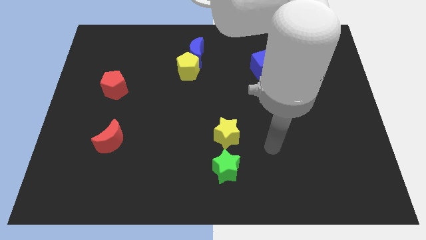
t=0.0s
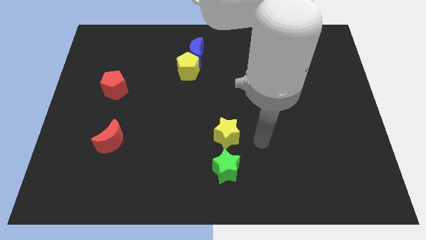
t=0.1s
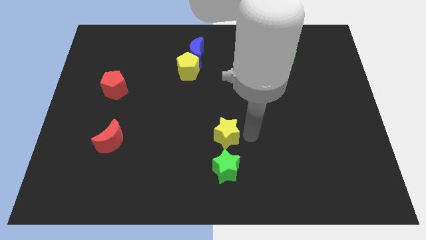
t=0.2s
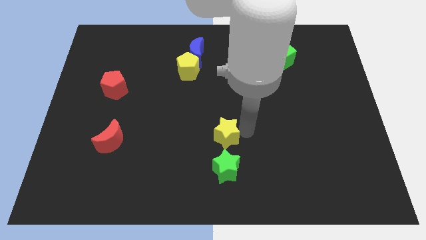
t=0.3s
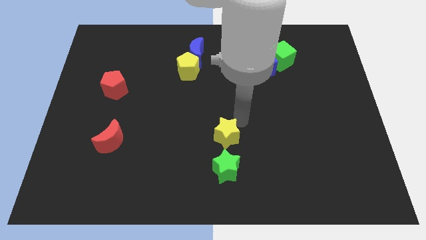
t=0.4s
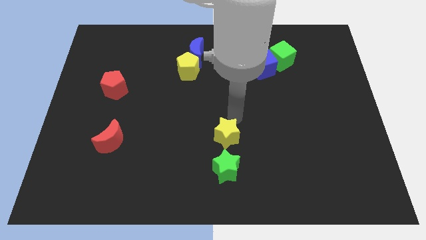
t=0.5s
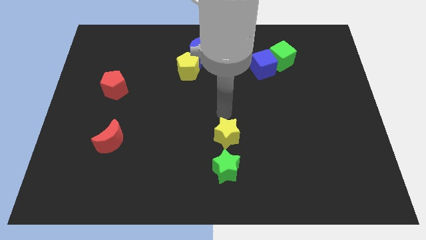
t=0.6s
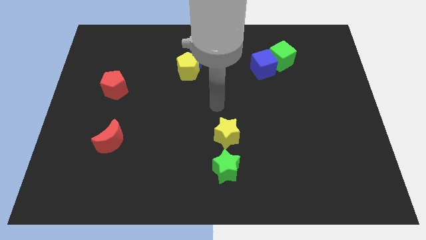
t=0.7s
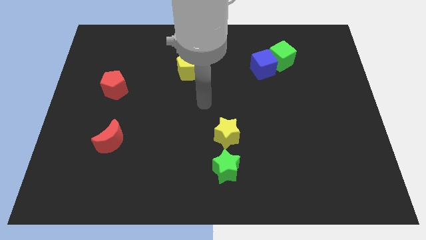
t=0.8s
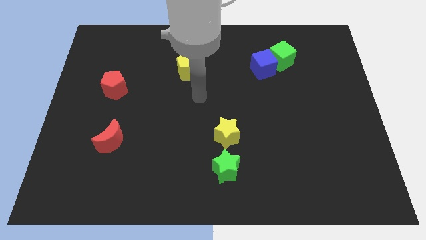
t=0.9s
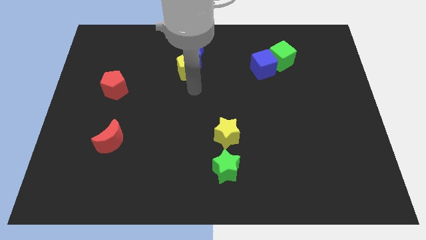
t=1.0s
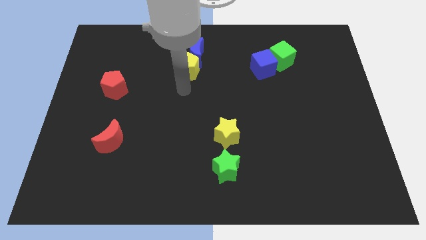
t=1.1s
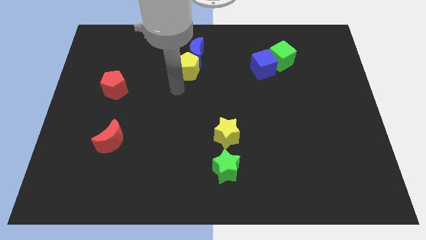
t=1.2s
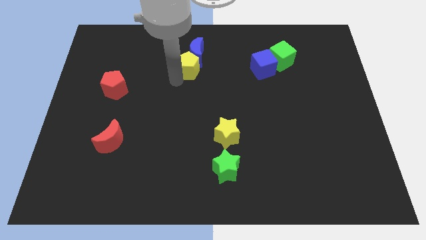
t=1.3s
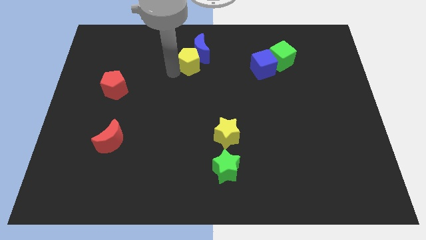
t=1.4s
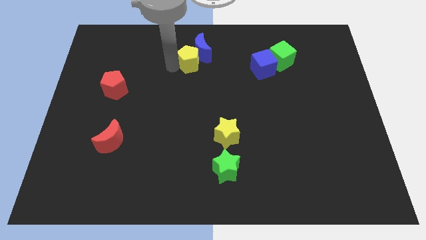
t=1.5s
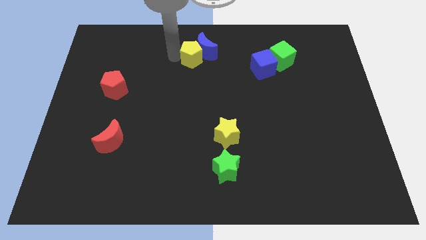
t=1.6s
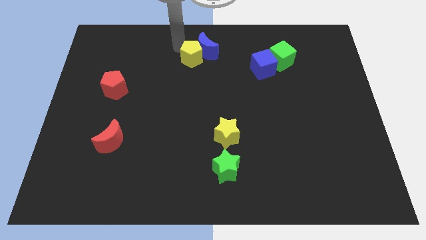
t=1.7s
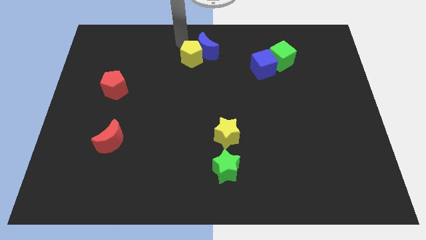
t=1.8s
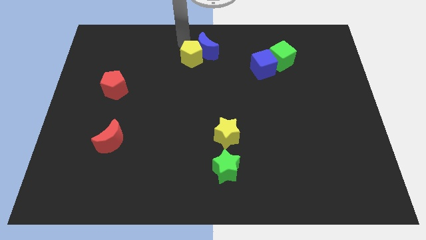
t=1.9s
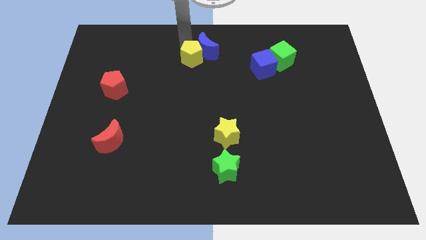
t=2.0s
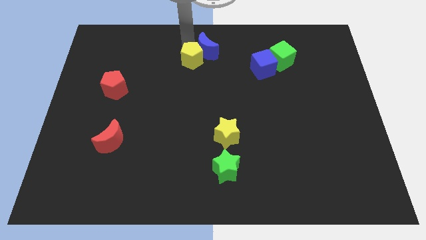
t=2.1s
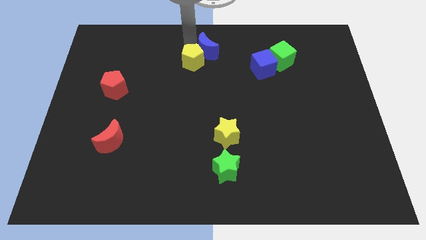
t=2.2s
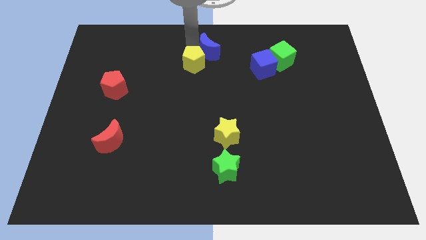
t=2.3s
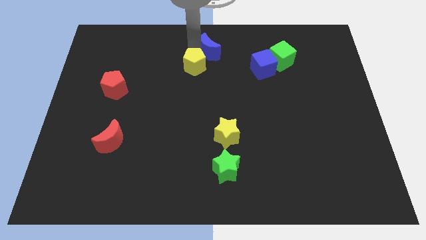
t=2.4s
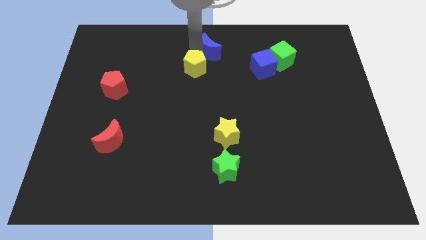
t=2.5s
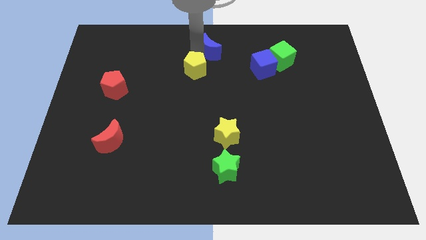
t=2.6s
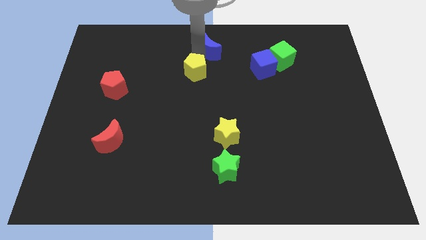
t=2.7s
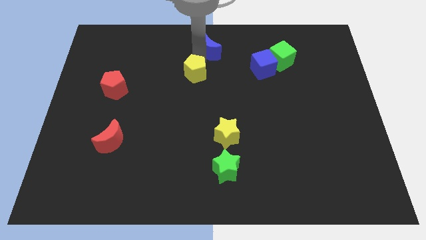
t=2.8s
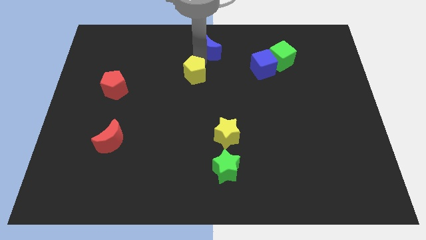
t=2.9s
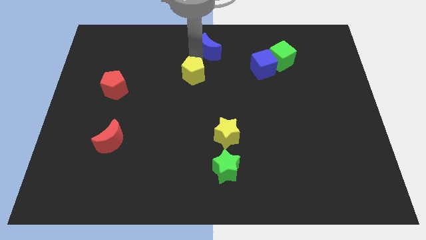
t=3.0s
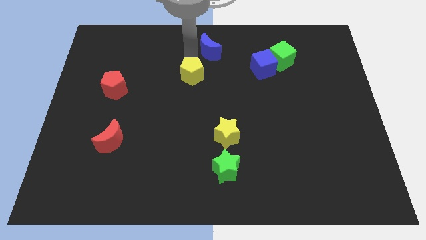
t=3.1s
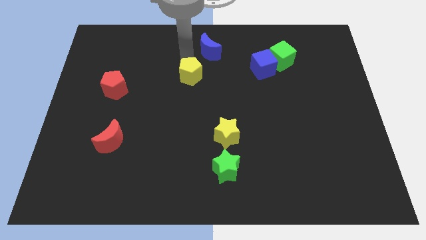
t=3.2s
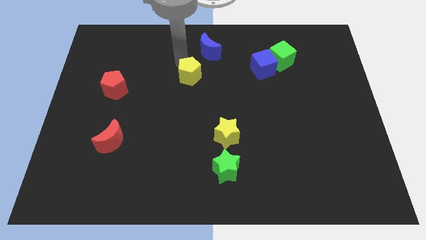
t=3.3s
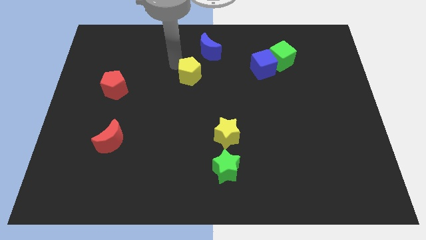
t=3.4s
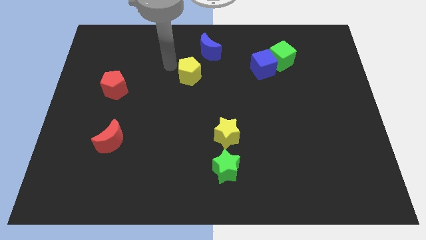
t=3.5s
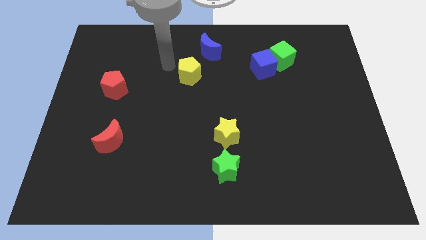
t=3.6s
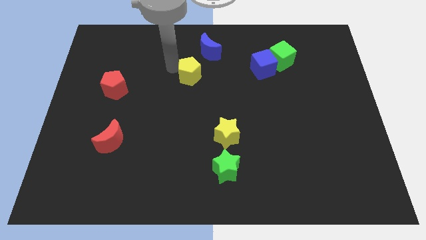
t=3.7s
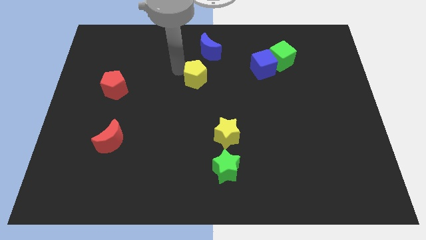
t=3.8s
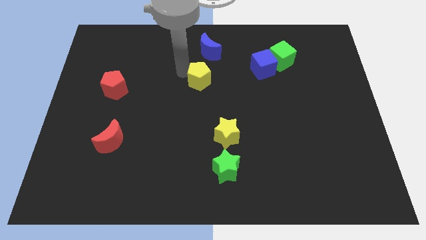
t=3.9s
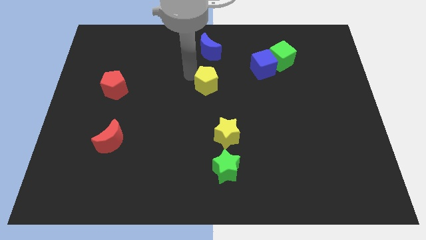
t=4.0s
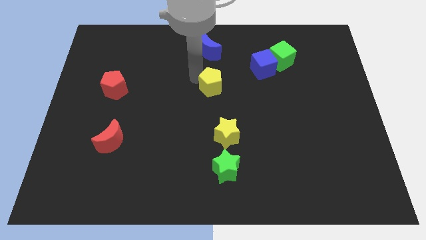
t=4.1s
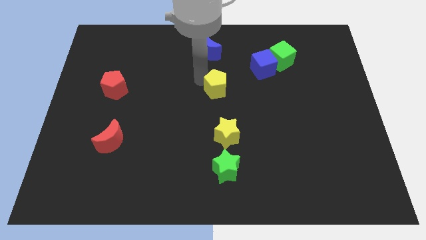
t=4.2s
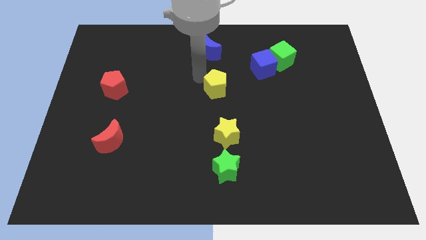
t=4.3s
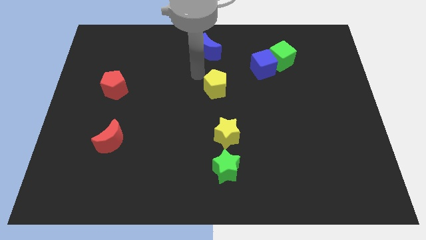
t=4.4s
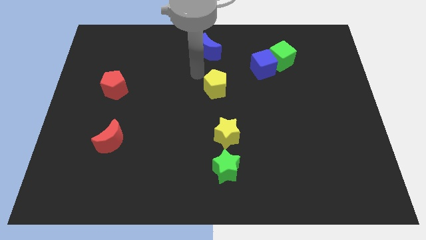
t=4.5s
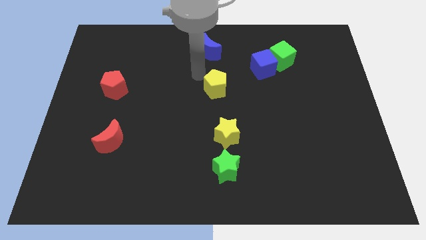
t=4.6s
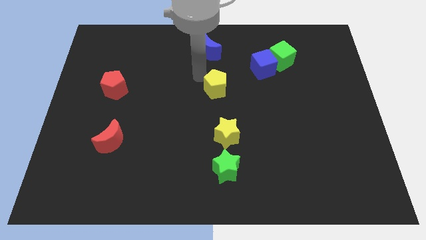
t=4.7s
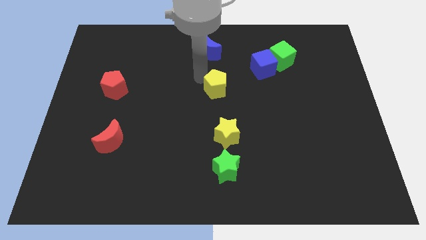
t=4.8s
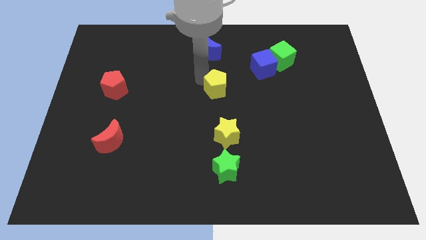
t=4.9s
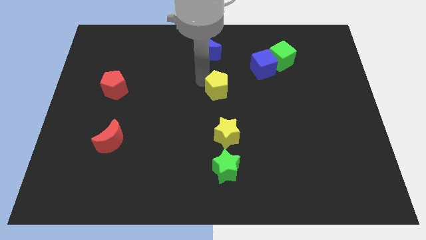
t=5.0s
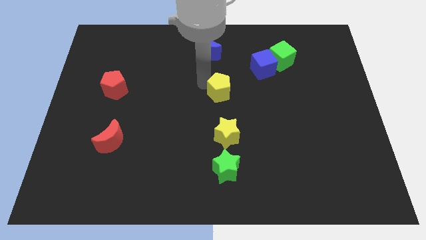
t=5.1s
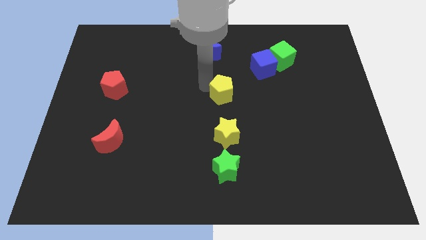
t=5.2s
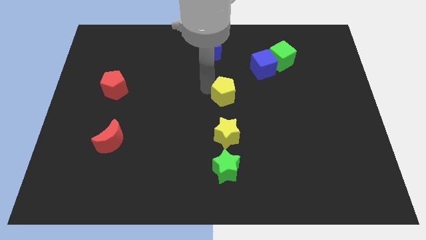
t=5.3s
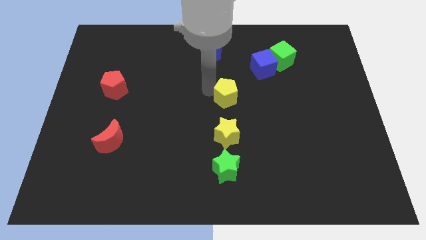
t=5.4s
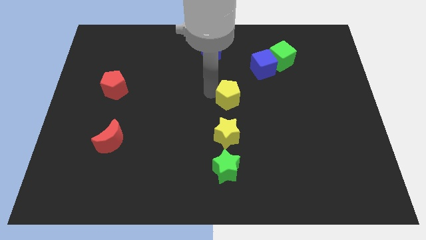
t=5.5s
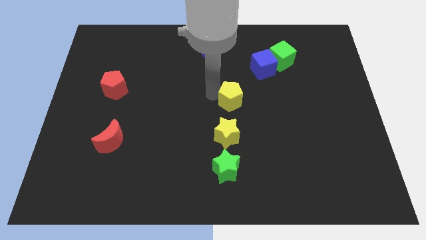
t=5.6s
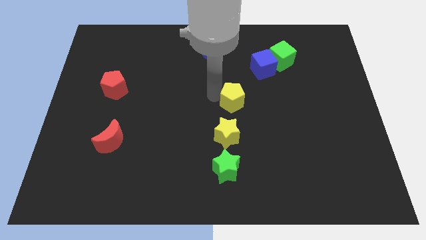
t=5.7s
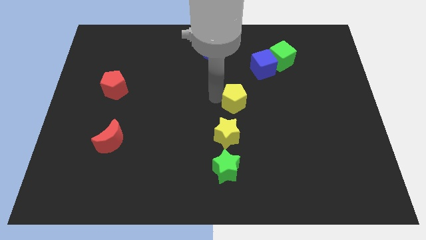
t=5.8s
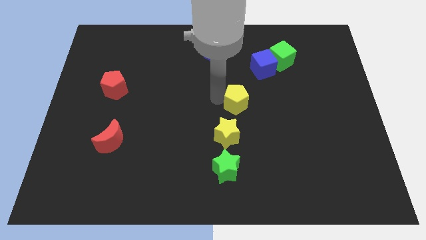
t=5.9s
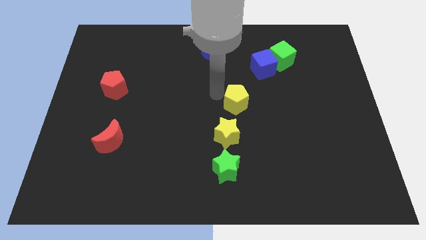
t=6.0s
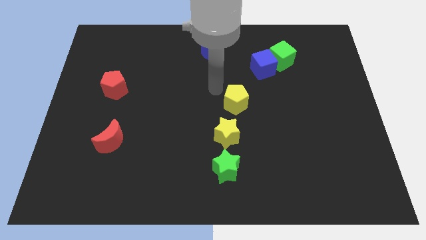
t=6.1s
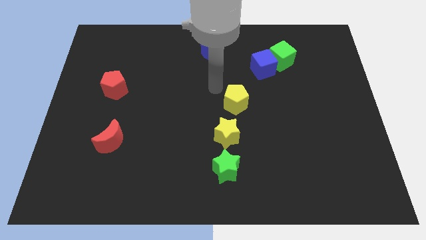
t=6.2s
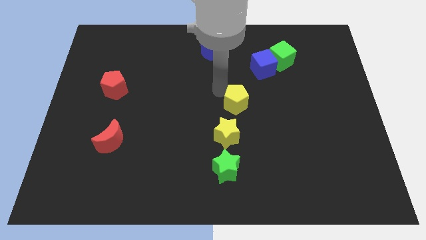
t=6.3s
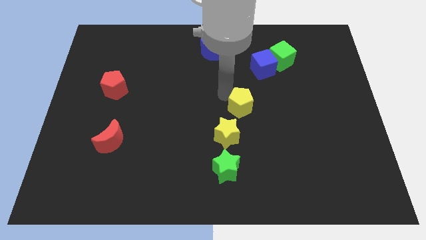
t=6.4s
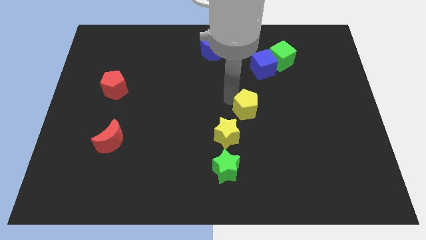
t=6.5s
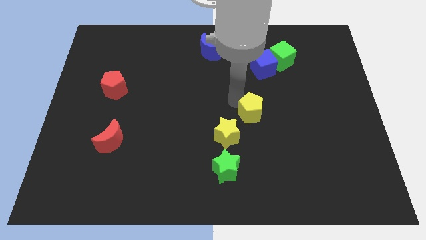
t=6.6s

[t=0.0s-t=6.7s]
slide the yellow pentagon down and right diagonally

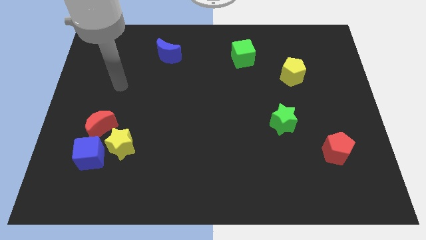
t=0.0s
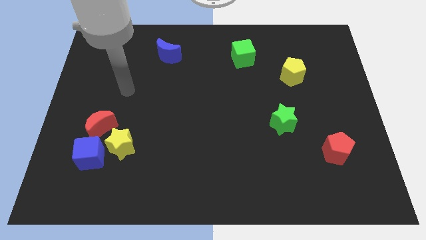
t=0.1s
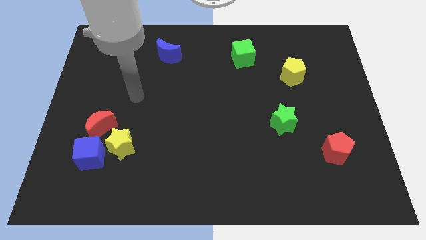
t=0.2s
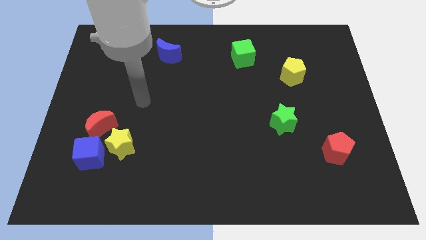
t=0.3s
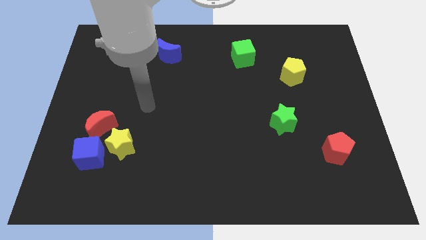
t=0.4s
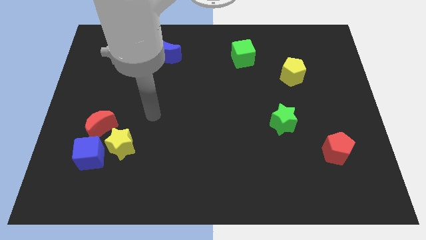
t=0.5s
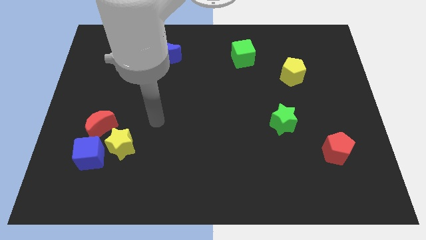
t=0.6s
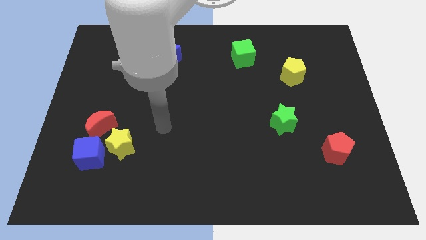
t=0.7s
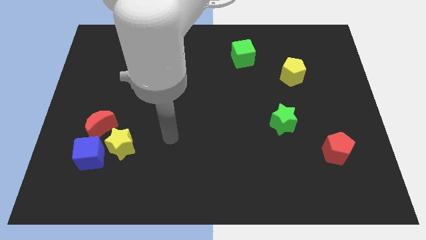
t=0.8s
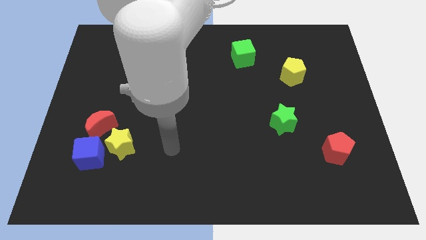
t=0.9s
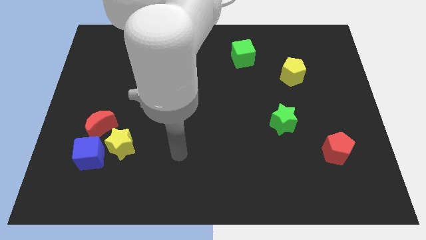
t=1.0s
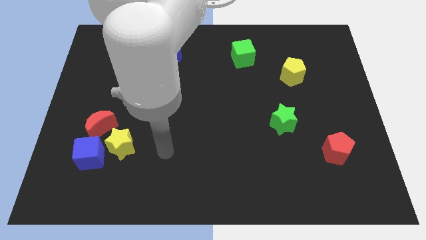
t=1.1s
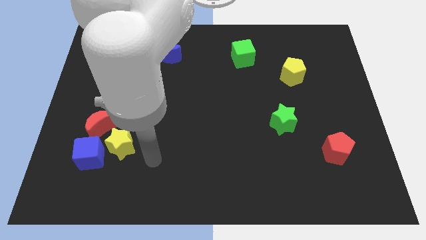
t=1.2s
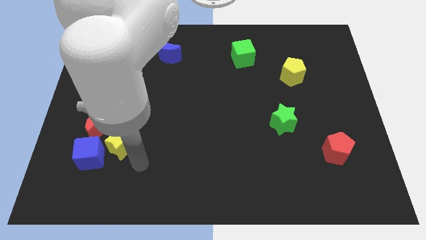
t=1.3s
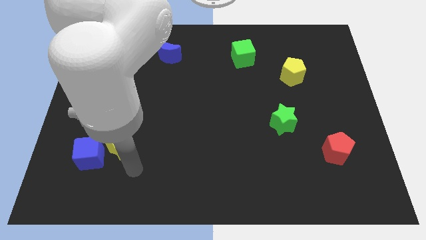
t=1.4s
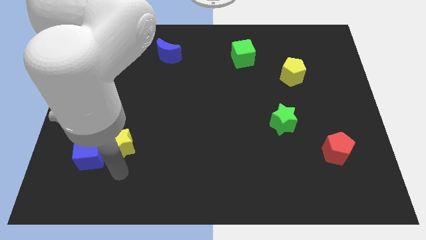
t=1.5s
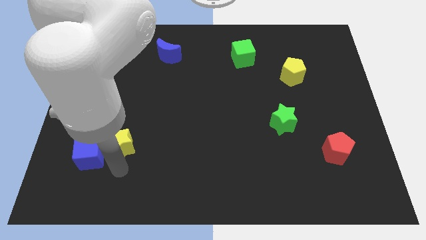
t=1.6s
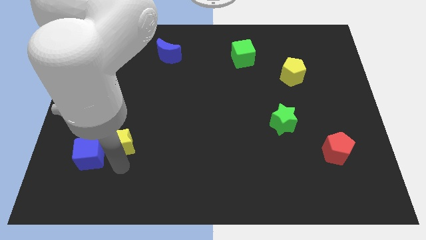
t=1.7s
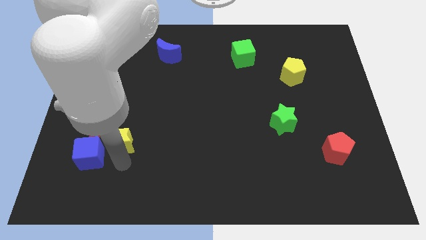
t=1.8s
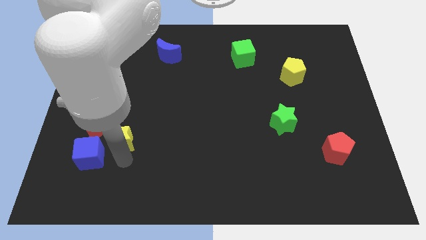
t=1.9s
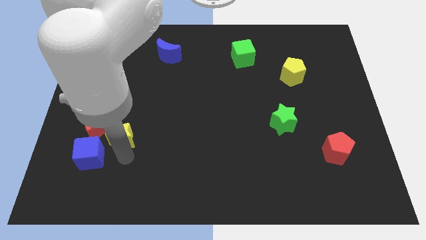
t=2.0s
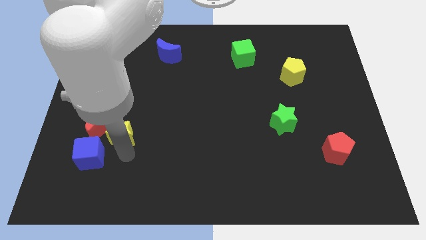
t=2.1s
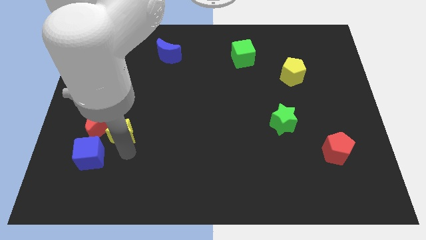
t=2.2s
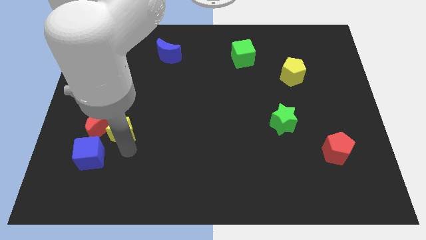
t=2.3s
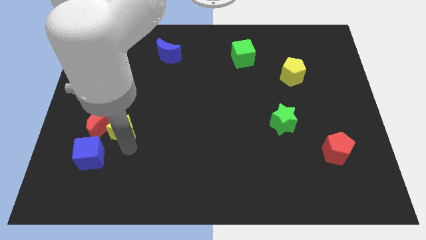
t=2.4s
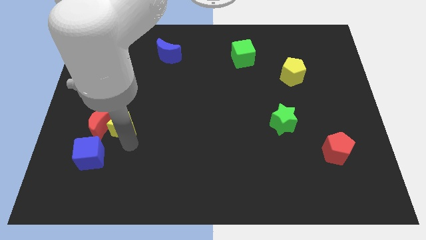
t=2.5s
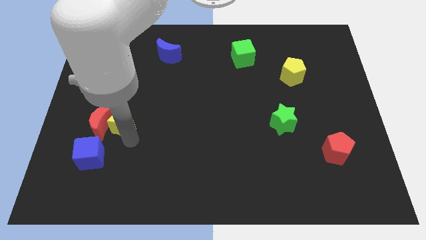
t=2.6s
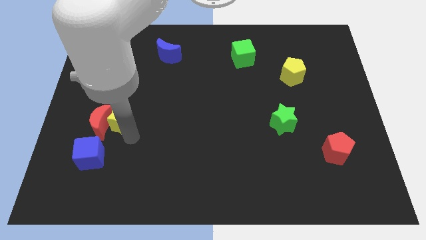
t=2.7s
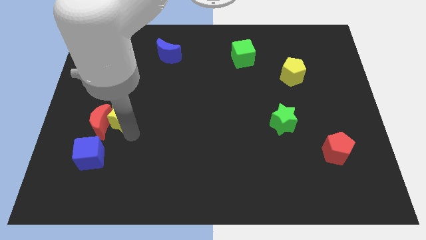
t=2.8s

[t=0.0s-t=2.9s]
push the yellow star a little up
